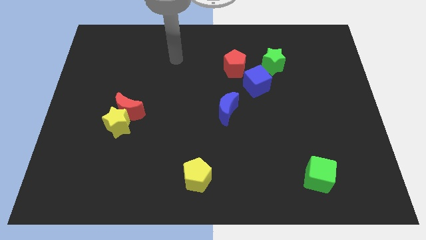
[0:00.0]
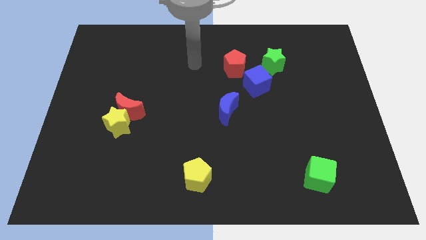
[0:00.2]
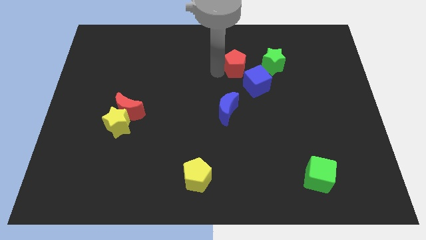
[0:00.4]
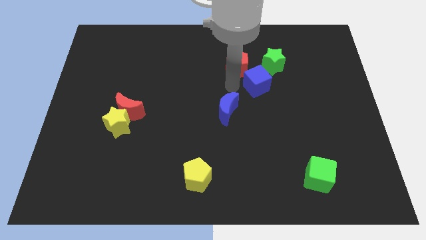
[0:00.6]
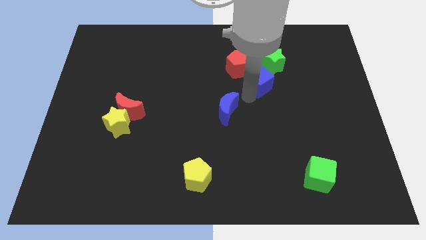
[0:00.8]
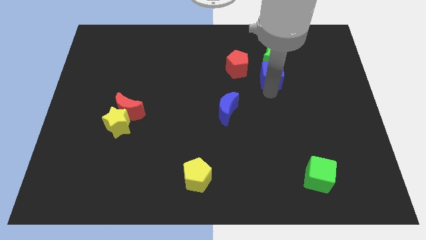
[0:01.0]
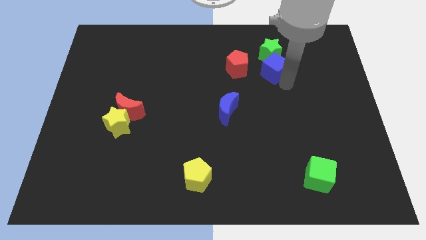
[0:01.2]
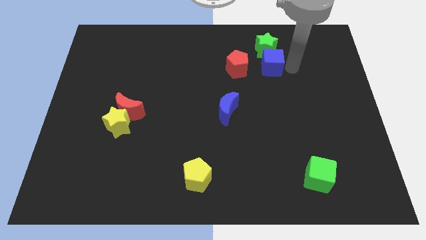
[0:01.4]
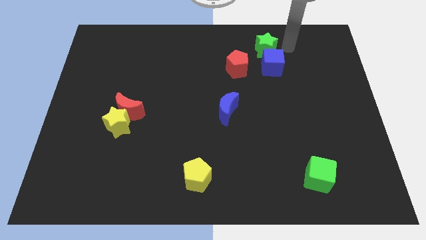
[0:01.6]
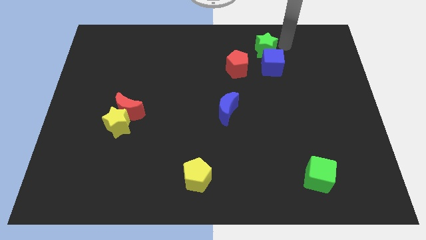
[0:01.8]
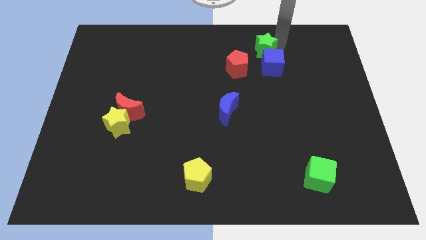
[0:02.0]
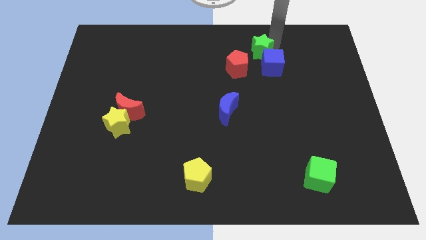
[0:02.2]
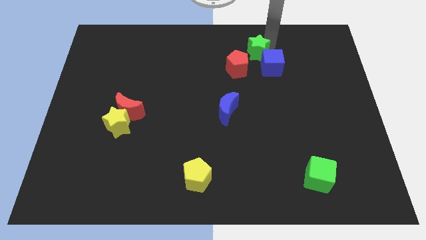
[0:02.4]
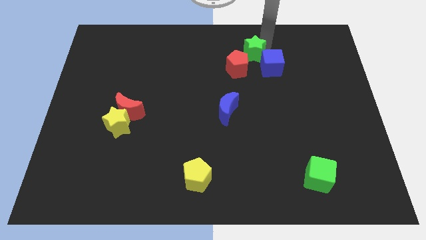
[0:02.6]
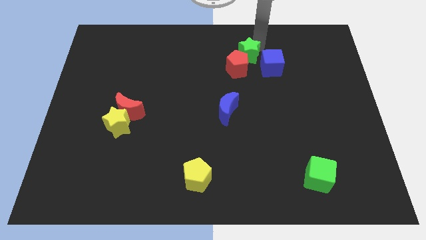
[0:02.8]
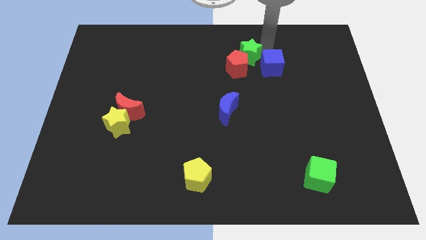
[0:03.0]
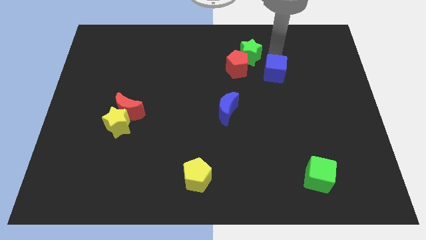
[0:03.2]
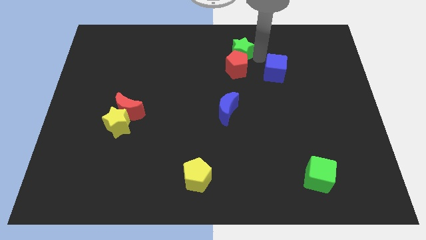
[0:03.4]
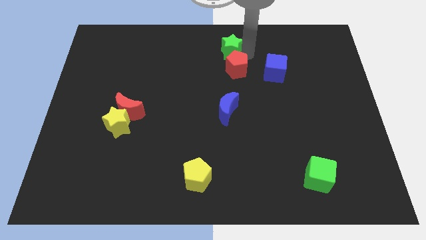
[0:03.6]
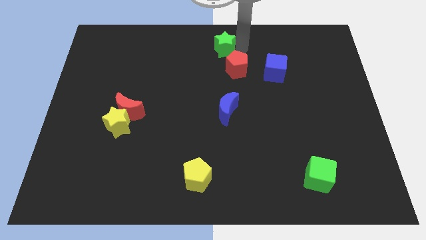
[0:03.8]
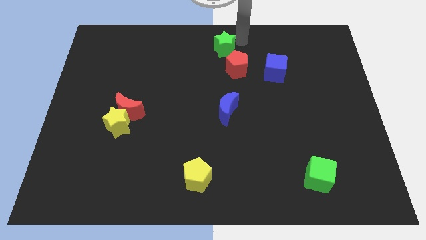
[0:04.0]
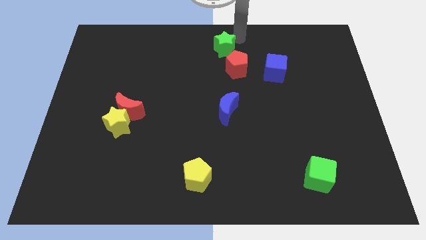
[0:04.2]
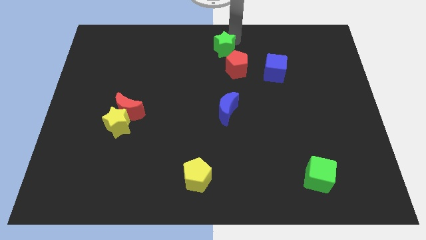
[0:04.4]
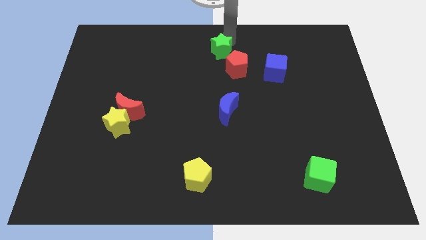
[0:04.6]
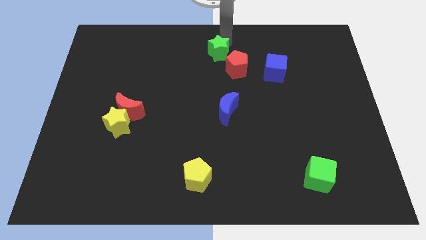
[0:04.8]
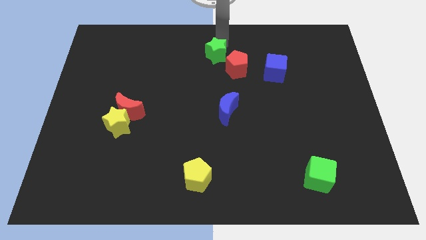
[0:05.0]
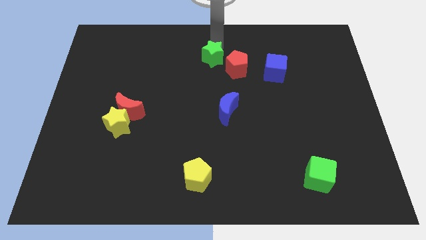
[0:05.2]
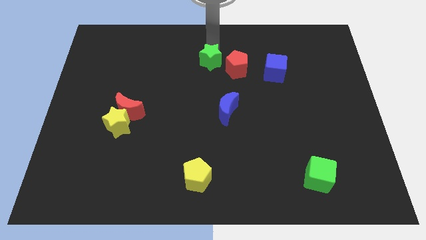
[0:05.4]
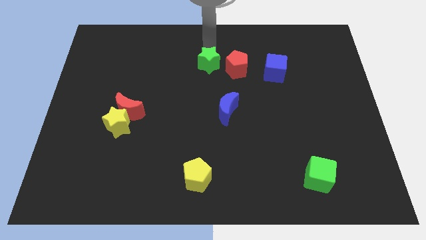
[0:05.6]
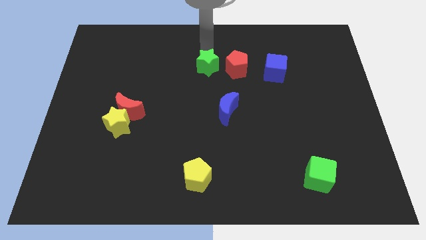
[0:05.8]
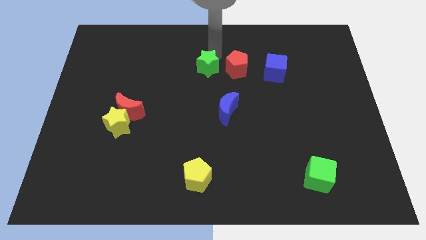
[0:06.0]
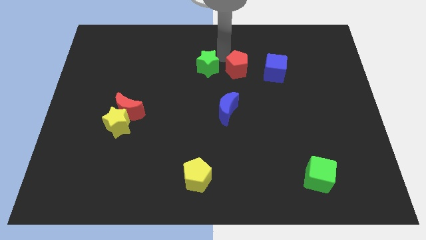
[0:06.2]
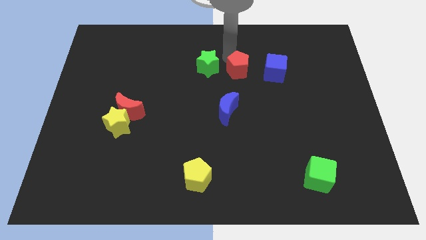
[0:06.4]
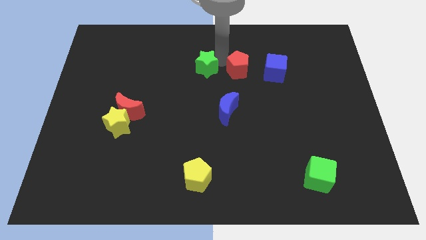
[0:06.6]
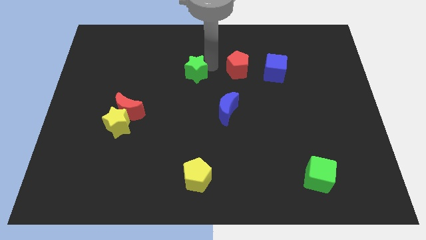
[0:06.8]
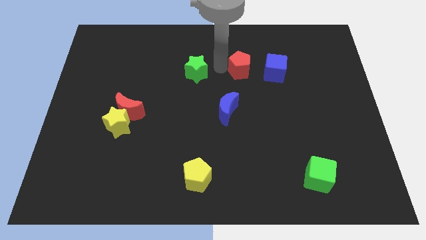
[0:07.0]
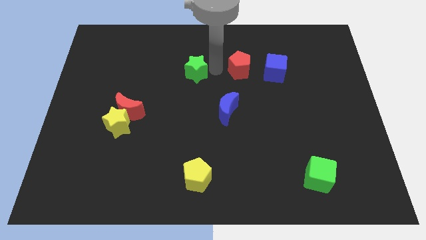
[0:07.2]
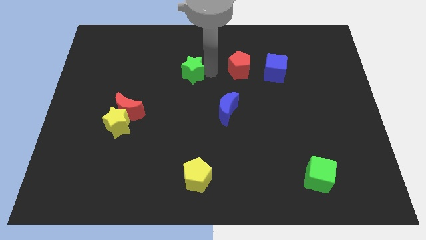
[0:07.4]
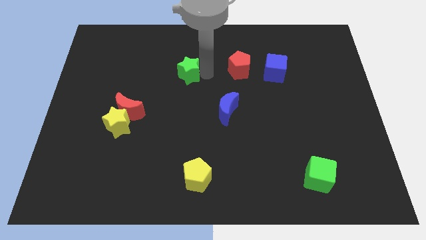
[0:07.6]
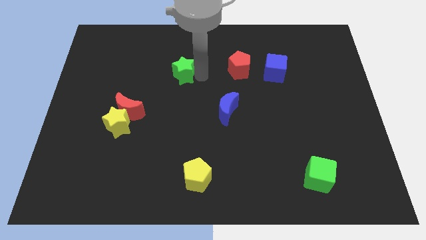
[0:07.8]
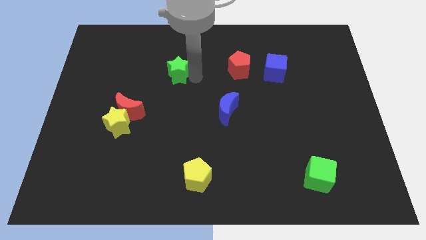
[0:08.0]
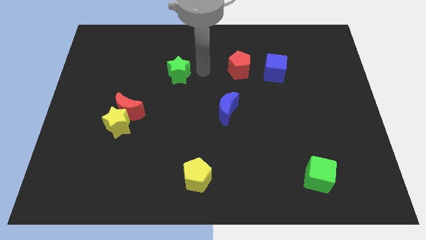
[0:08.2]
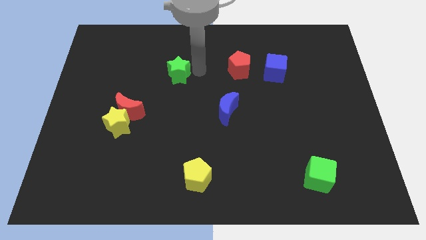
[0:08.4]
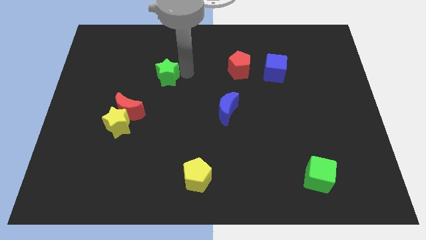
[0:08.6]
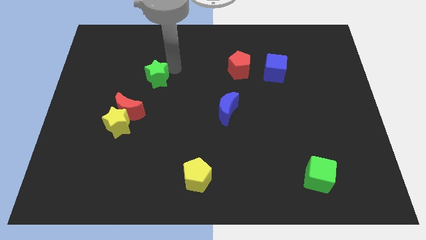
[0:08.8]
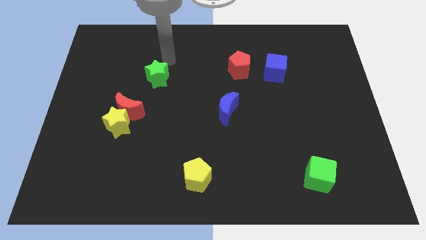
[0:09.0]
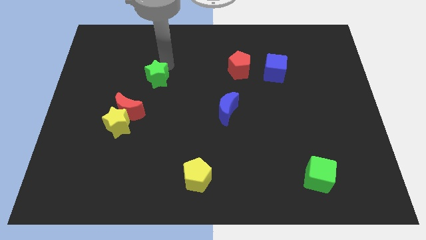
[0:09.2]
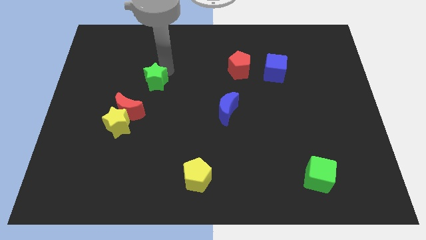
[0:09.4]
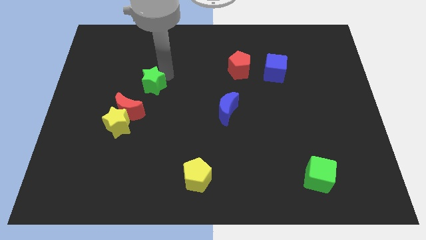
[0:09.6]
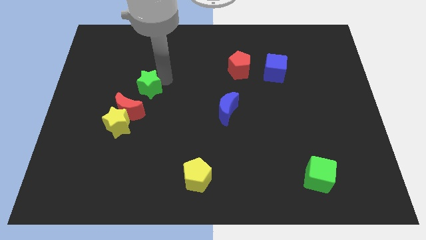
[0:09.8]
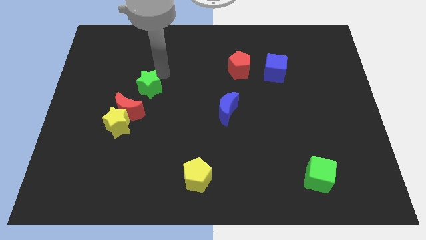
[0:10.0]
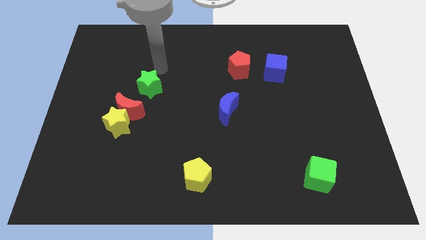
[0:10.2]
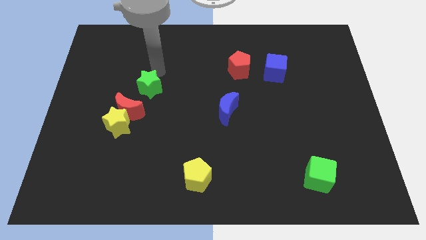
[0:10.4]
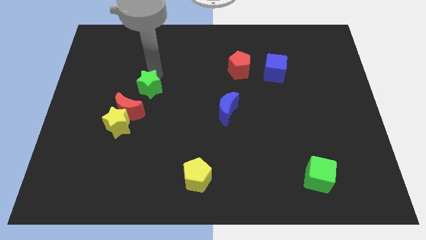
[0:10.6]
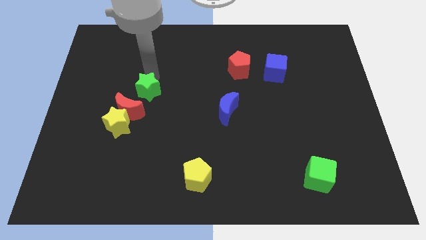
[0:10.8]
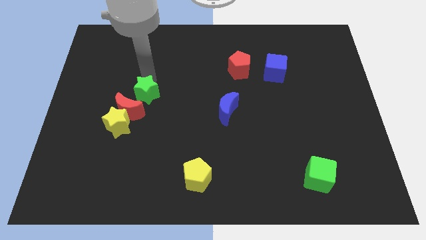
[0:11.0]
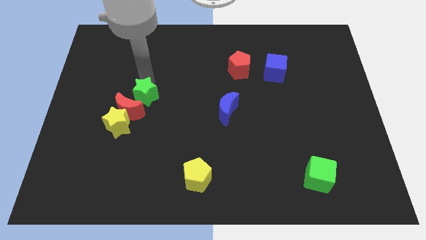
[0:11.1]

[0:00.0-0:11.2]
push the green star to the red moon
